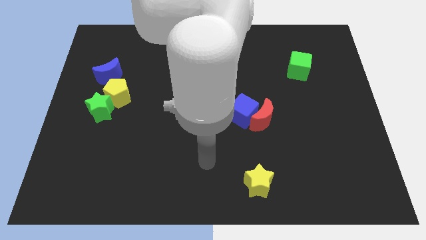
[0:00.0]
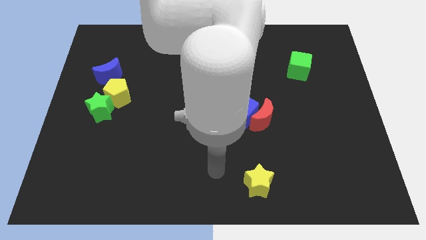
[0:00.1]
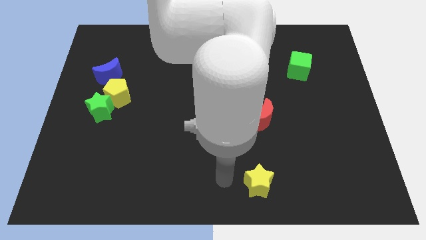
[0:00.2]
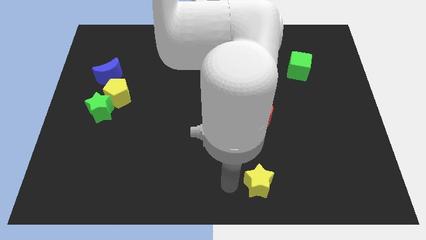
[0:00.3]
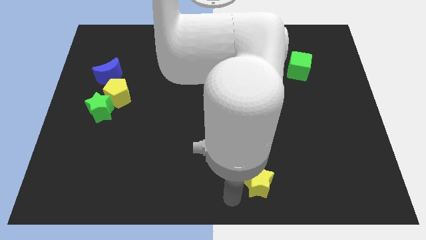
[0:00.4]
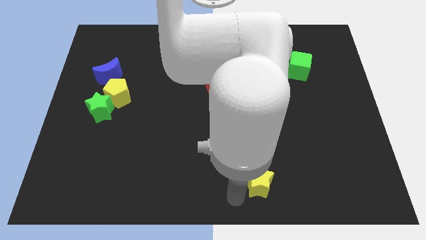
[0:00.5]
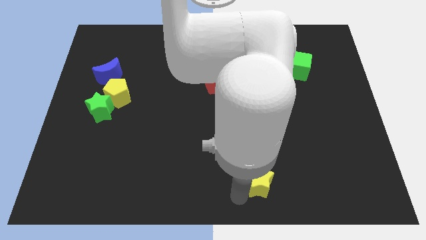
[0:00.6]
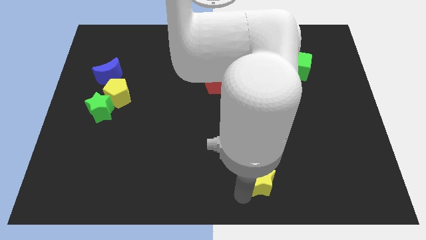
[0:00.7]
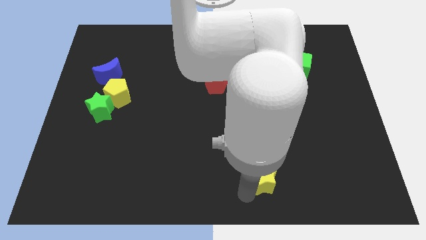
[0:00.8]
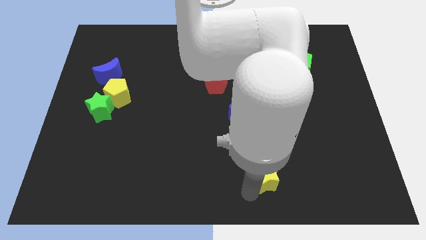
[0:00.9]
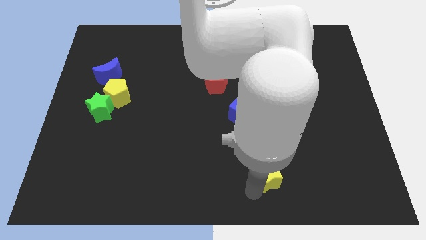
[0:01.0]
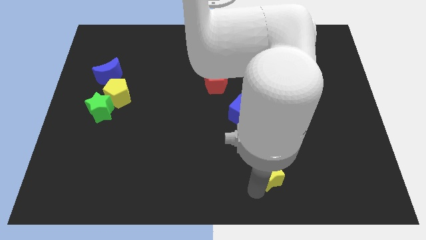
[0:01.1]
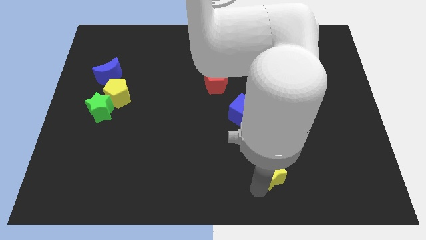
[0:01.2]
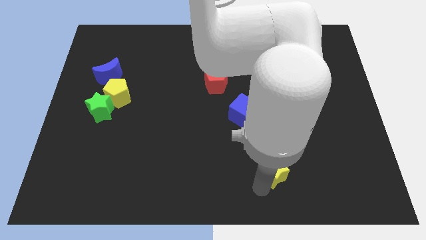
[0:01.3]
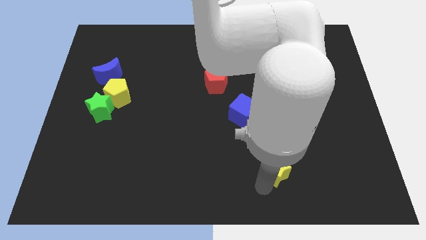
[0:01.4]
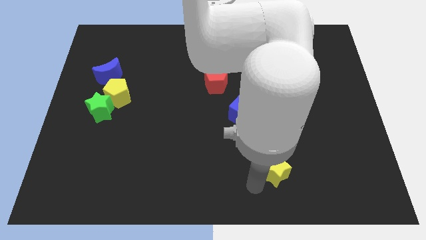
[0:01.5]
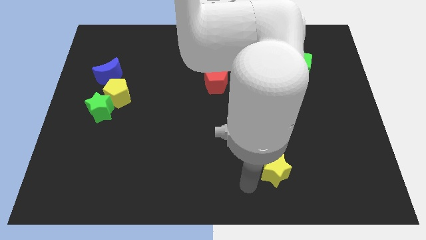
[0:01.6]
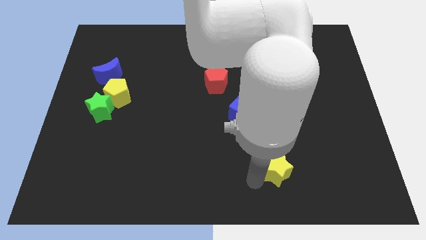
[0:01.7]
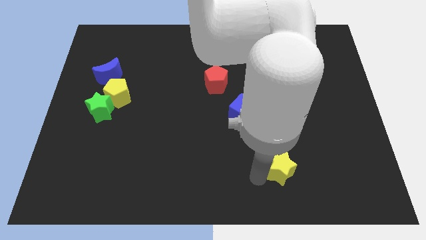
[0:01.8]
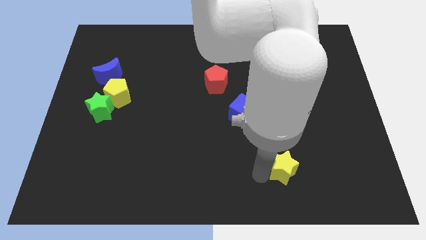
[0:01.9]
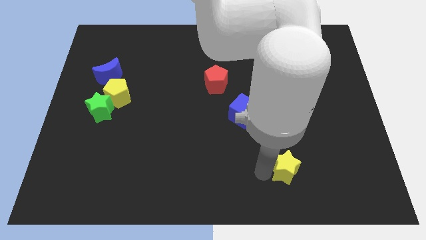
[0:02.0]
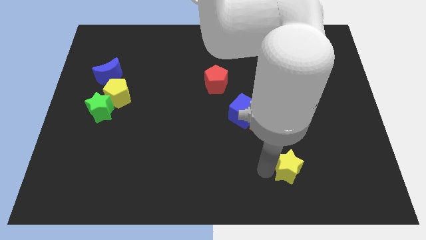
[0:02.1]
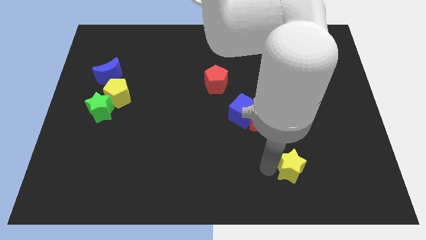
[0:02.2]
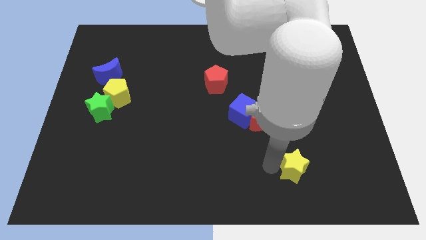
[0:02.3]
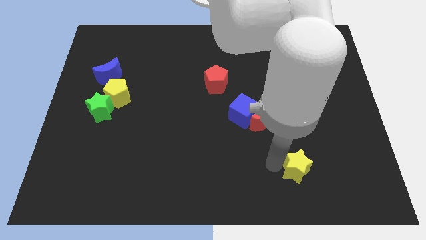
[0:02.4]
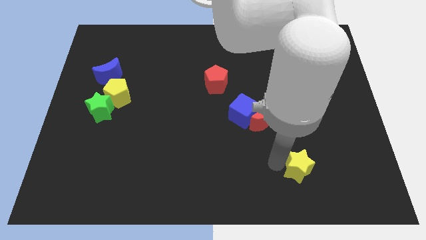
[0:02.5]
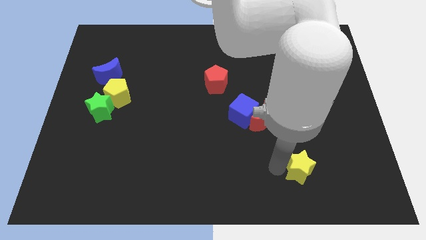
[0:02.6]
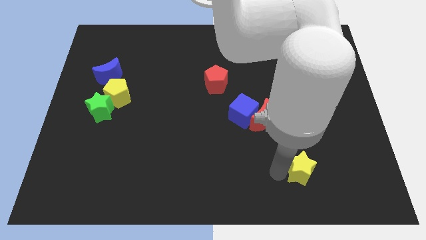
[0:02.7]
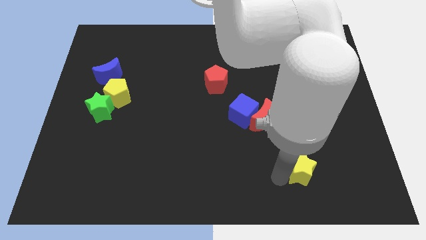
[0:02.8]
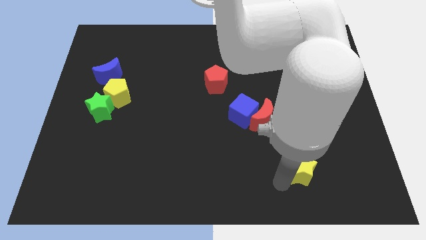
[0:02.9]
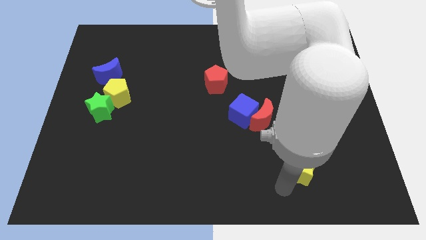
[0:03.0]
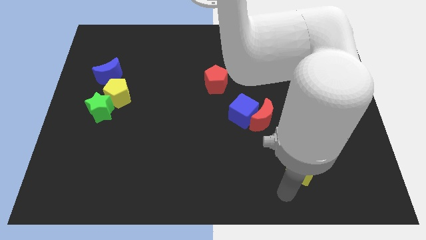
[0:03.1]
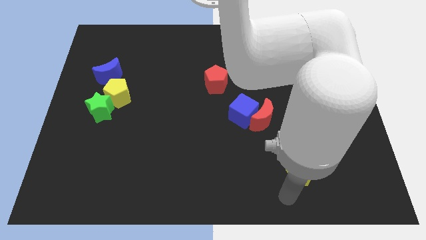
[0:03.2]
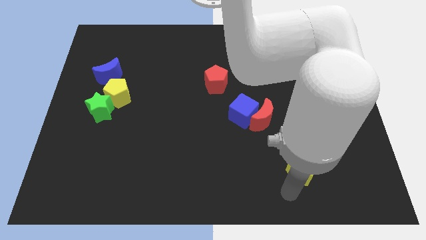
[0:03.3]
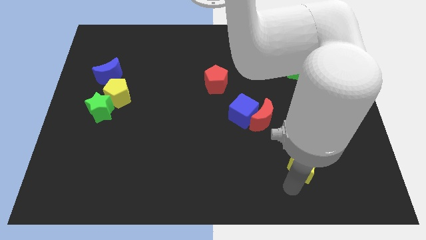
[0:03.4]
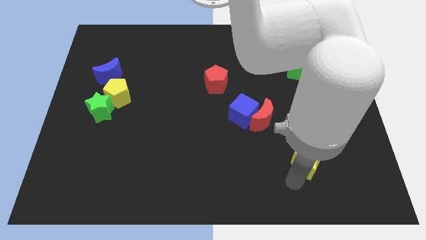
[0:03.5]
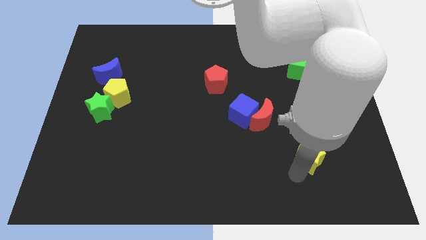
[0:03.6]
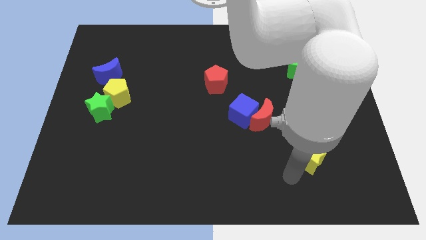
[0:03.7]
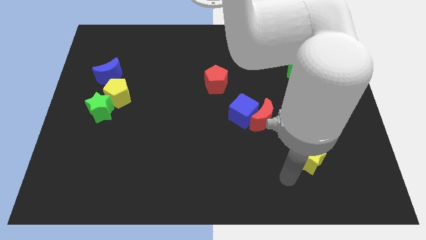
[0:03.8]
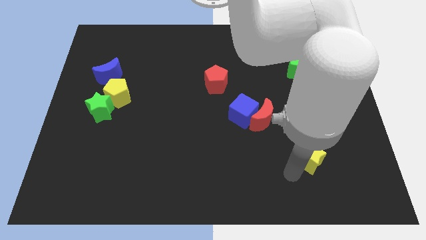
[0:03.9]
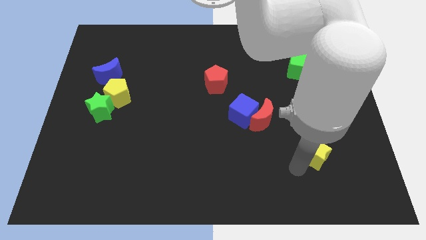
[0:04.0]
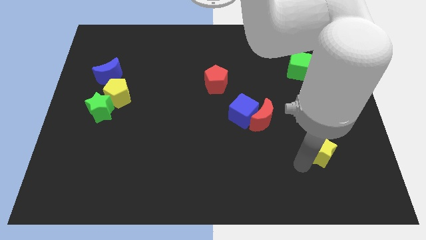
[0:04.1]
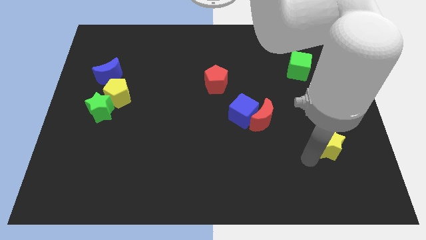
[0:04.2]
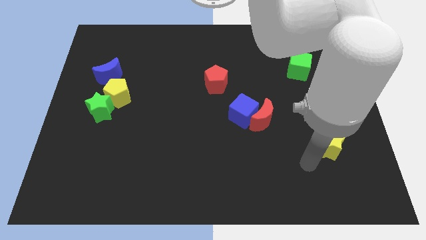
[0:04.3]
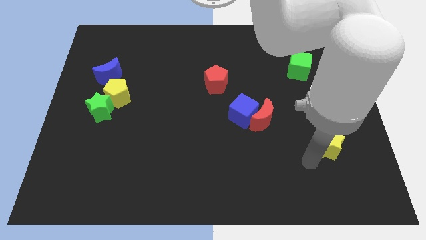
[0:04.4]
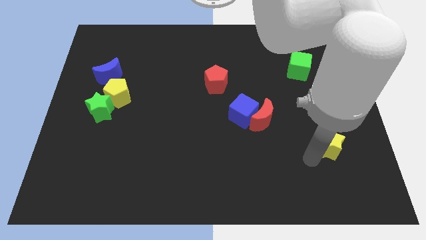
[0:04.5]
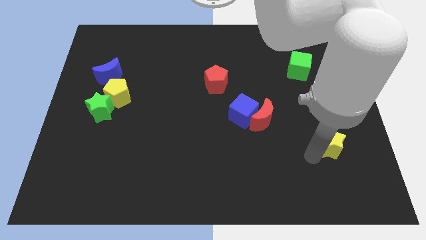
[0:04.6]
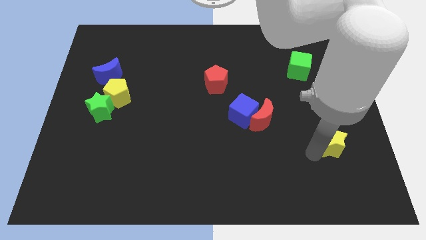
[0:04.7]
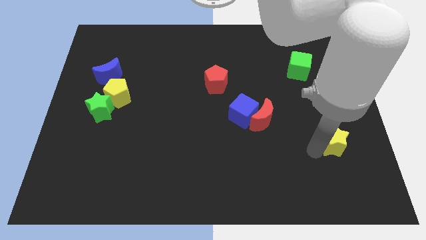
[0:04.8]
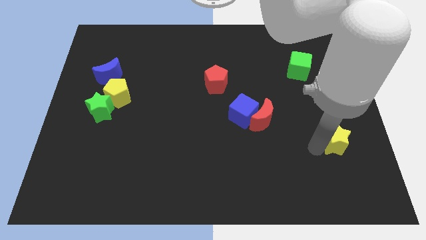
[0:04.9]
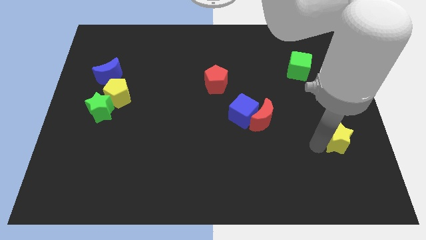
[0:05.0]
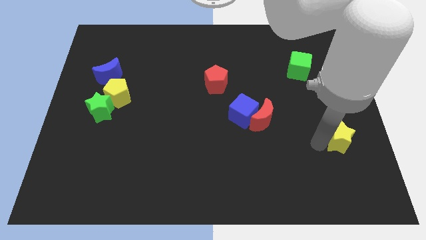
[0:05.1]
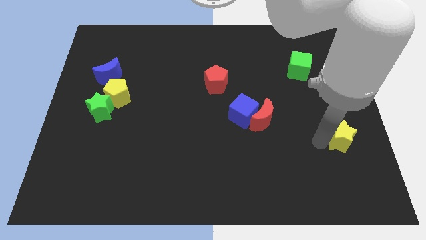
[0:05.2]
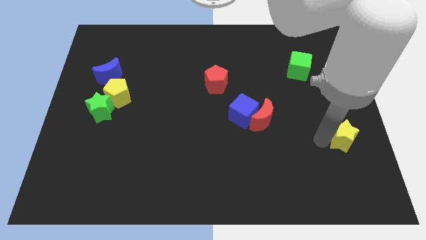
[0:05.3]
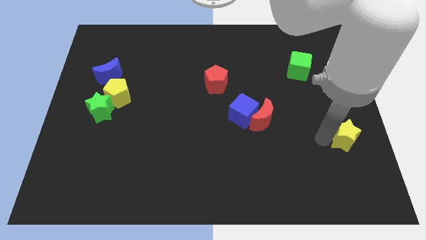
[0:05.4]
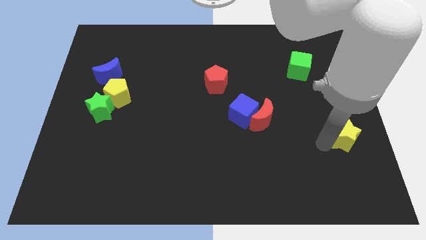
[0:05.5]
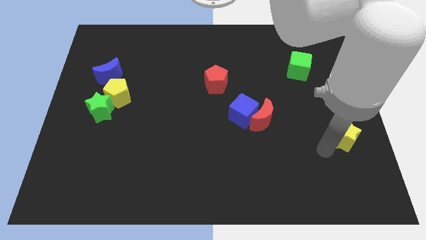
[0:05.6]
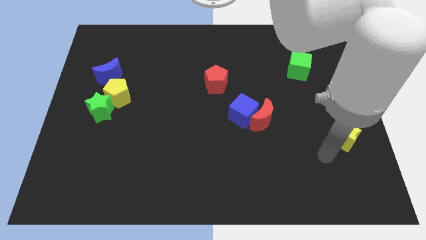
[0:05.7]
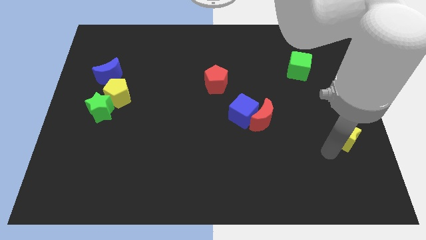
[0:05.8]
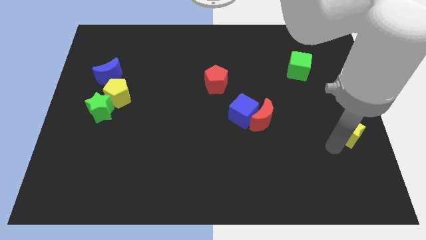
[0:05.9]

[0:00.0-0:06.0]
slide the yellow star to the center right
